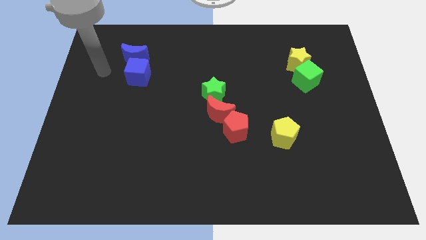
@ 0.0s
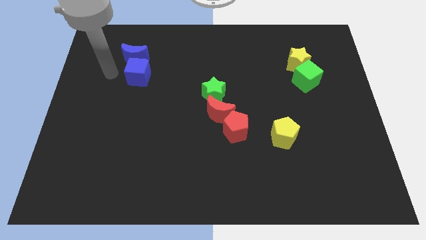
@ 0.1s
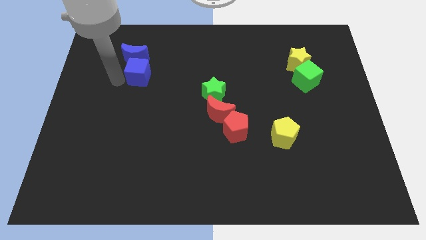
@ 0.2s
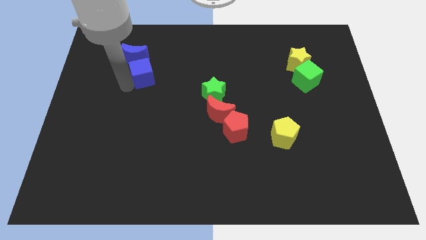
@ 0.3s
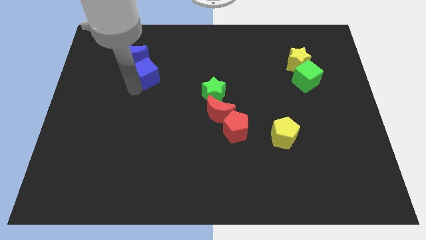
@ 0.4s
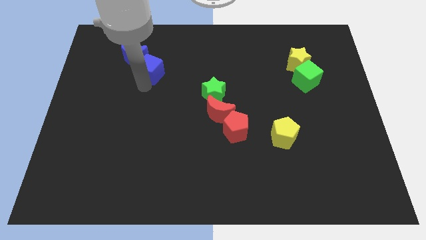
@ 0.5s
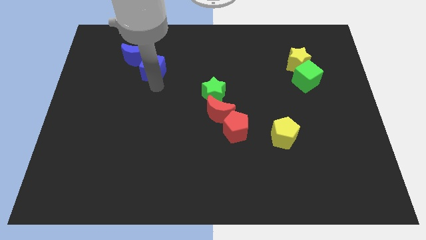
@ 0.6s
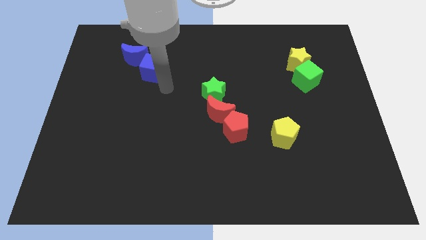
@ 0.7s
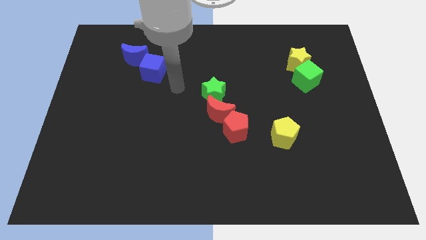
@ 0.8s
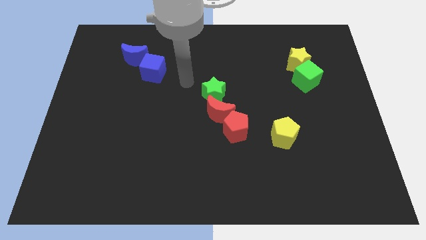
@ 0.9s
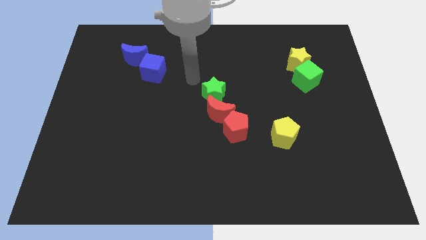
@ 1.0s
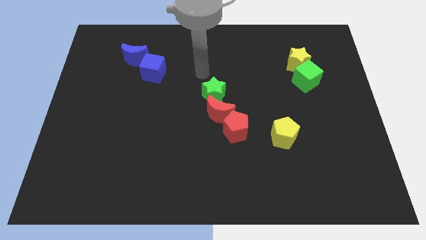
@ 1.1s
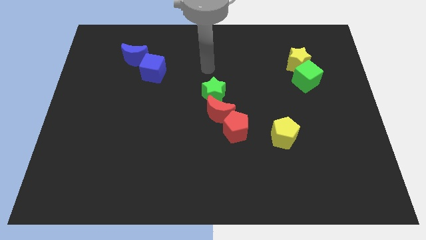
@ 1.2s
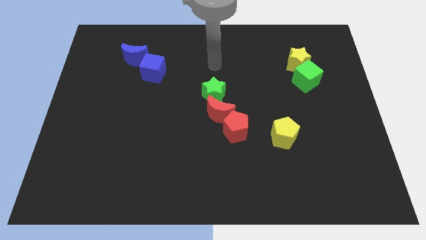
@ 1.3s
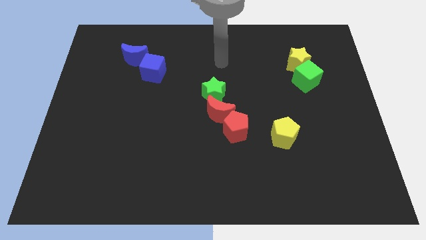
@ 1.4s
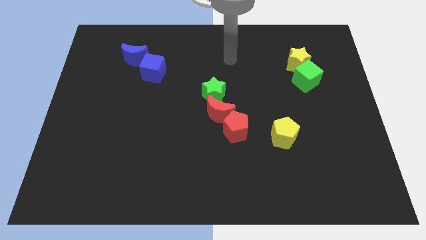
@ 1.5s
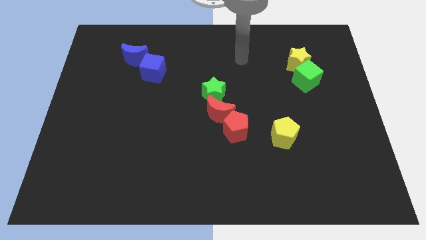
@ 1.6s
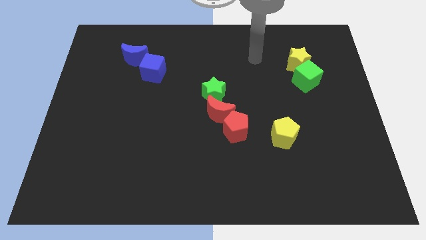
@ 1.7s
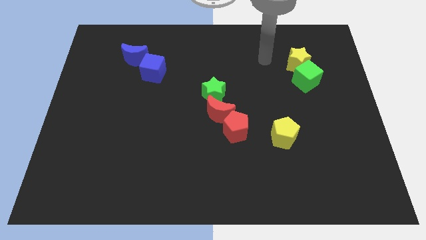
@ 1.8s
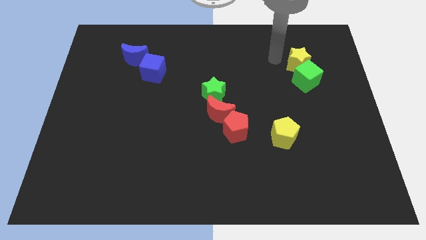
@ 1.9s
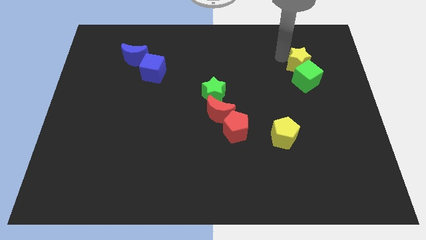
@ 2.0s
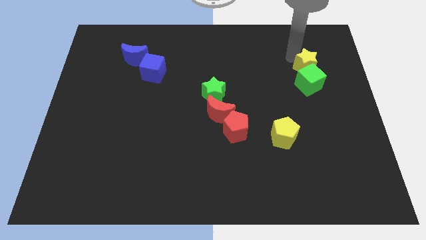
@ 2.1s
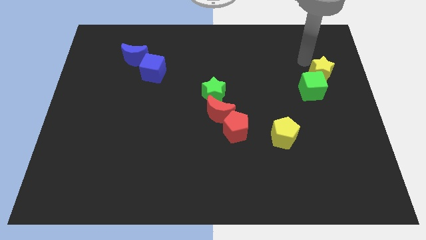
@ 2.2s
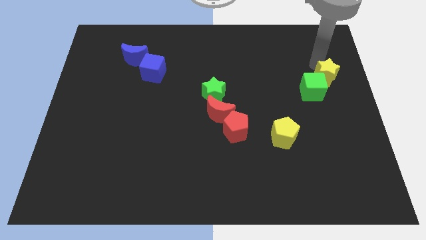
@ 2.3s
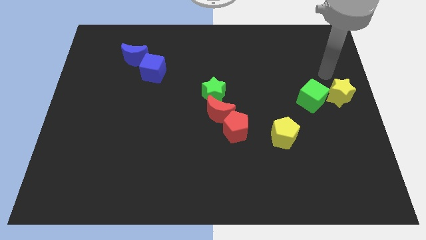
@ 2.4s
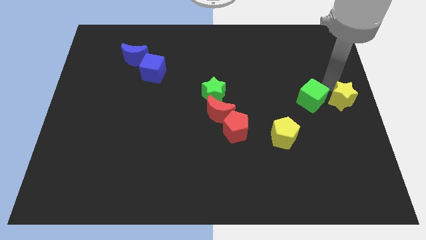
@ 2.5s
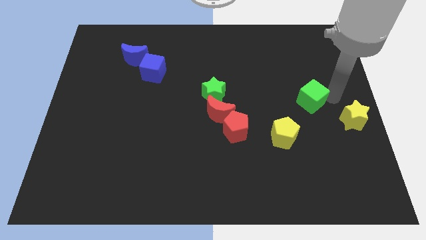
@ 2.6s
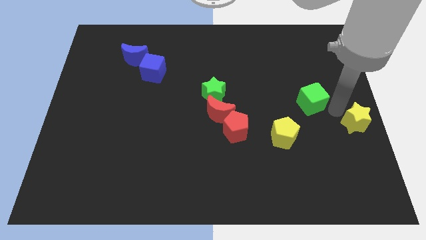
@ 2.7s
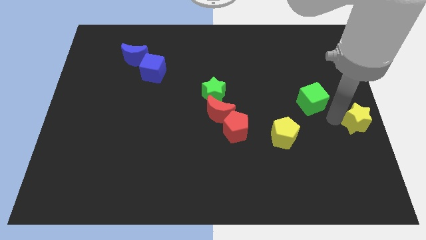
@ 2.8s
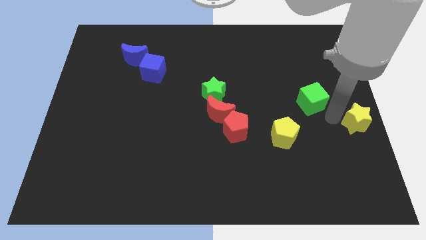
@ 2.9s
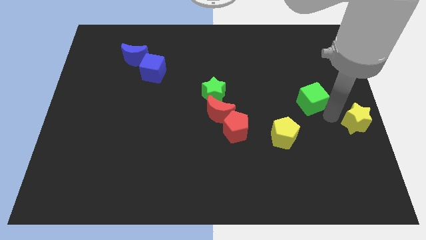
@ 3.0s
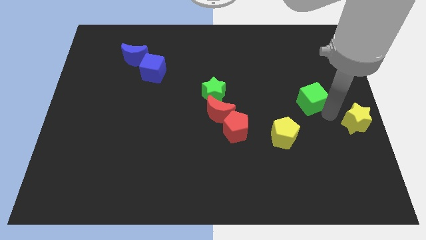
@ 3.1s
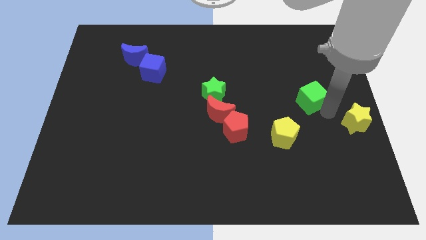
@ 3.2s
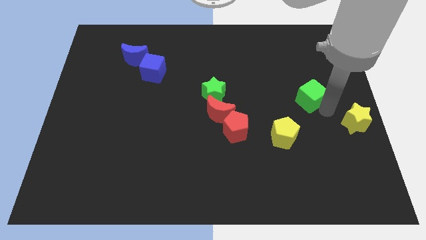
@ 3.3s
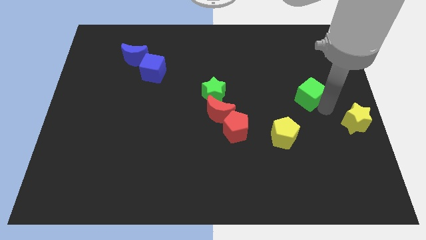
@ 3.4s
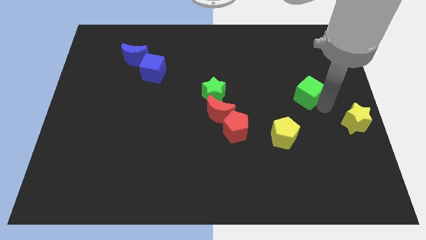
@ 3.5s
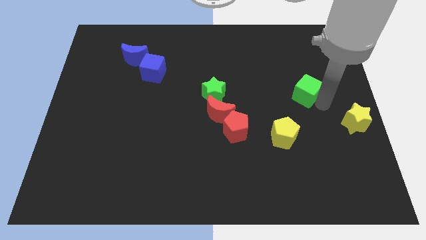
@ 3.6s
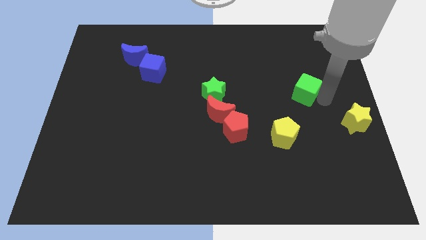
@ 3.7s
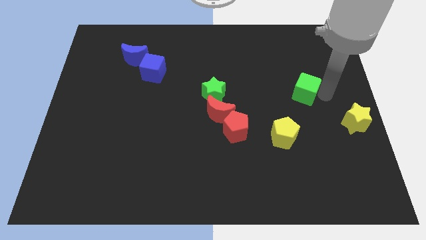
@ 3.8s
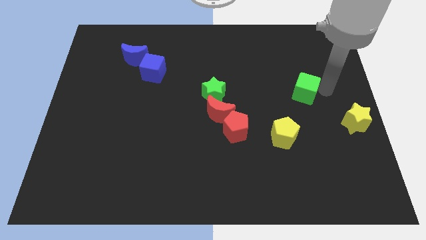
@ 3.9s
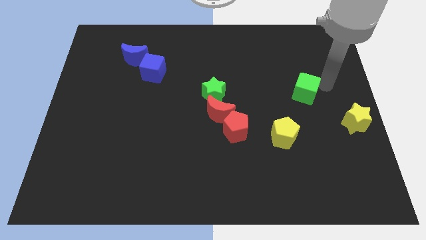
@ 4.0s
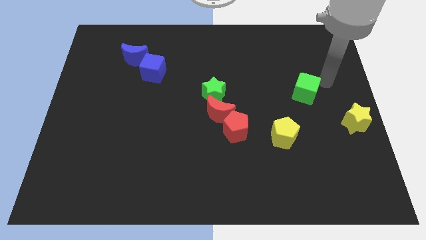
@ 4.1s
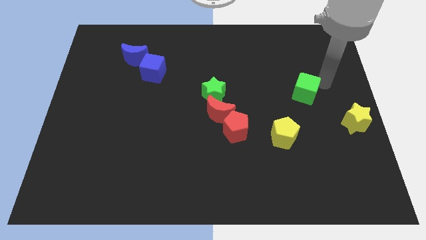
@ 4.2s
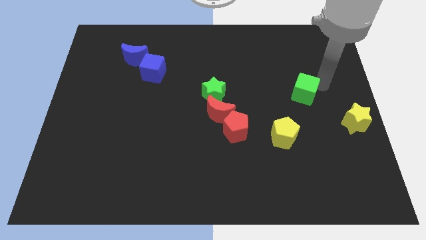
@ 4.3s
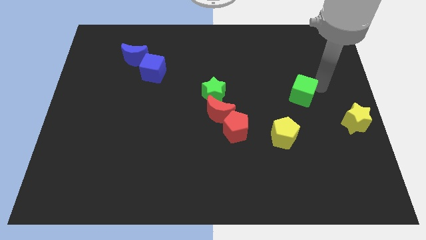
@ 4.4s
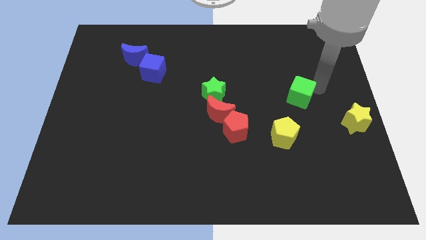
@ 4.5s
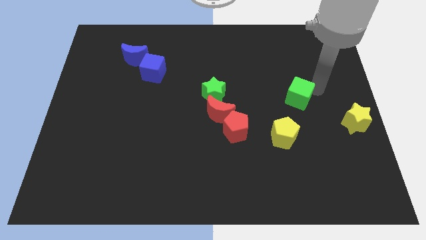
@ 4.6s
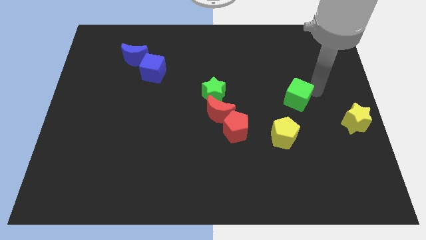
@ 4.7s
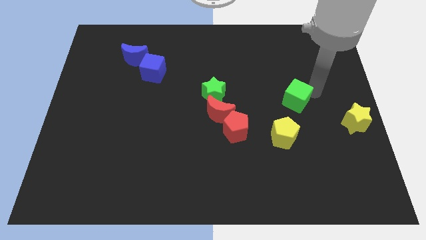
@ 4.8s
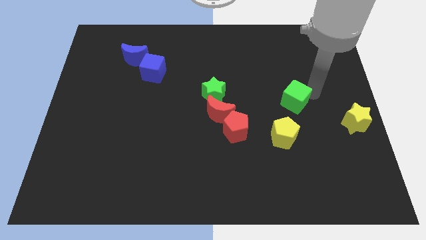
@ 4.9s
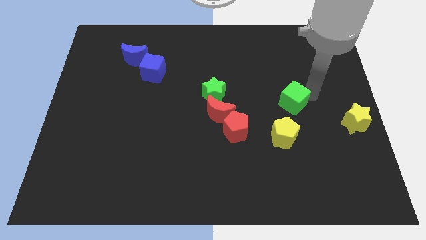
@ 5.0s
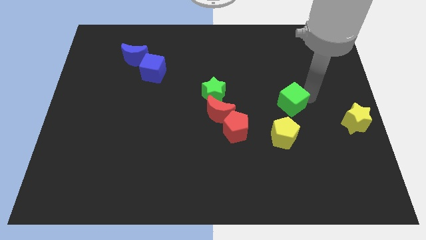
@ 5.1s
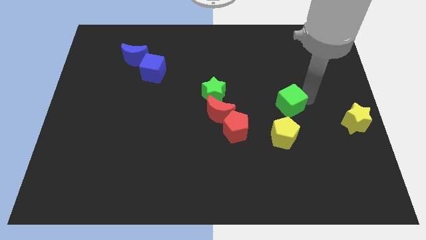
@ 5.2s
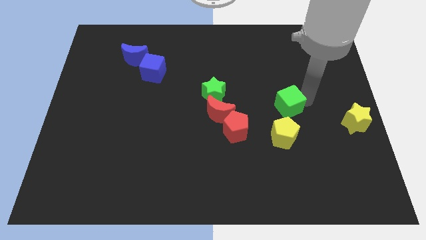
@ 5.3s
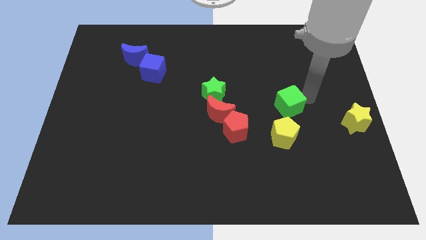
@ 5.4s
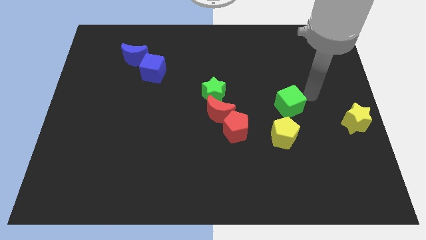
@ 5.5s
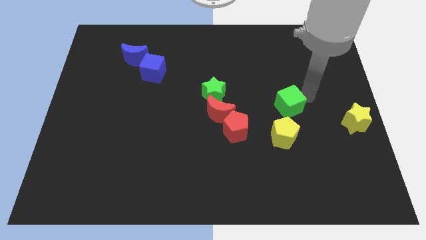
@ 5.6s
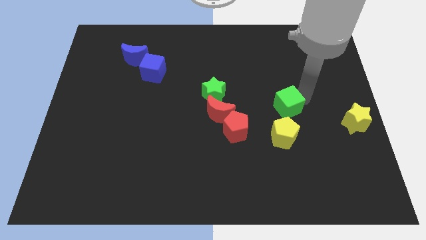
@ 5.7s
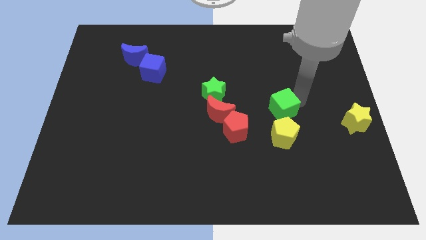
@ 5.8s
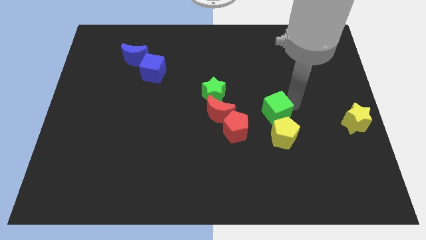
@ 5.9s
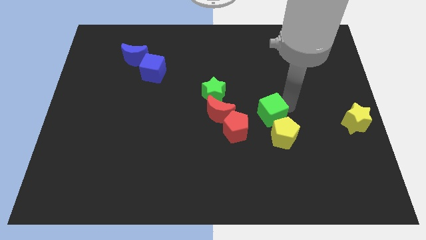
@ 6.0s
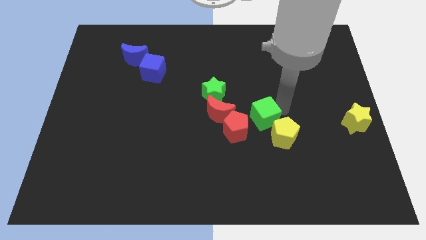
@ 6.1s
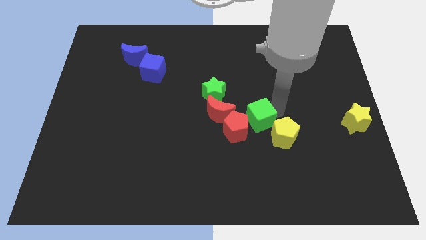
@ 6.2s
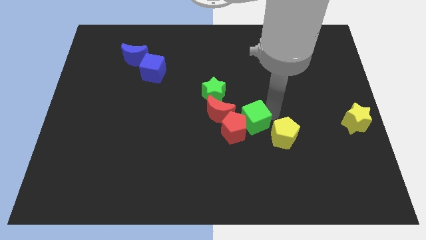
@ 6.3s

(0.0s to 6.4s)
slide the green cube next to the red pentagon
